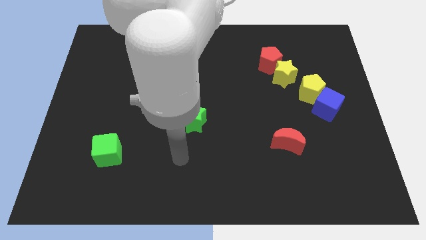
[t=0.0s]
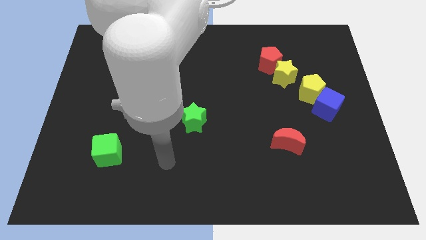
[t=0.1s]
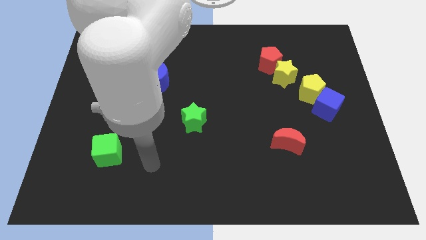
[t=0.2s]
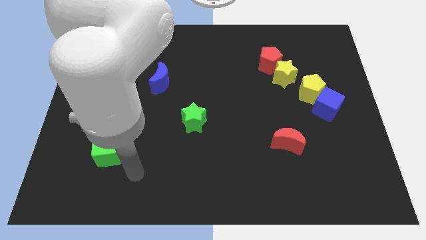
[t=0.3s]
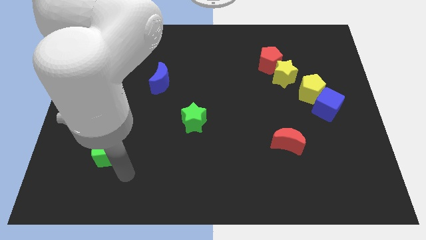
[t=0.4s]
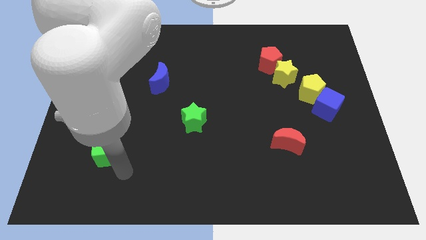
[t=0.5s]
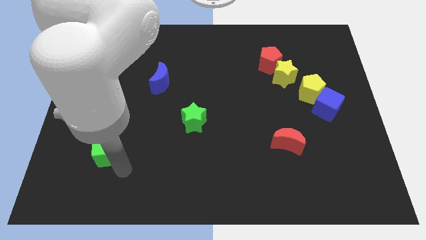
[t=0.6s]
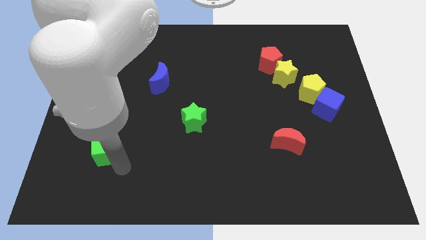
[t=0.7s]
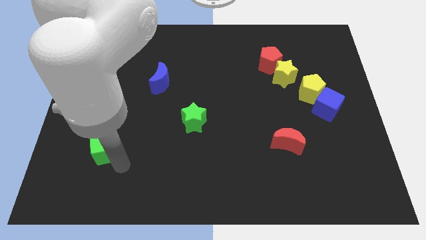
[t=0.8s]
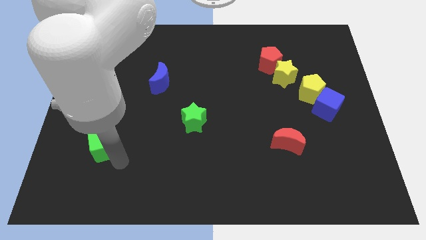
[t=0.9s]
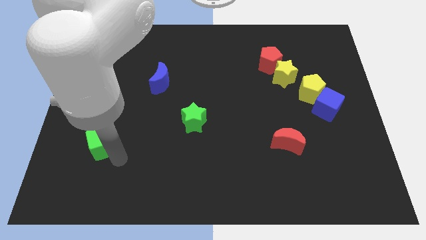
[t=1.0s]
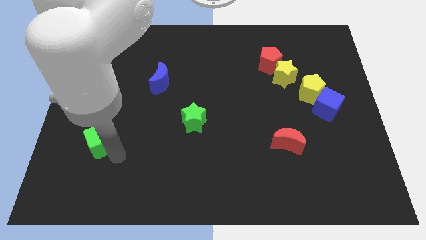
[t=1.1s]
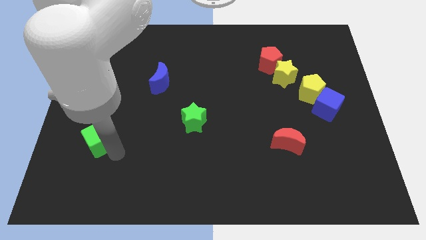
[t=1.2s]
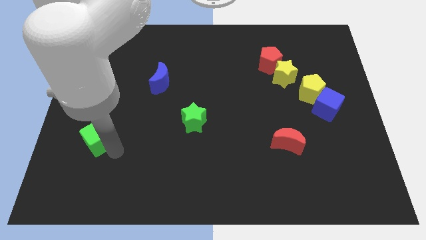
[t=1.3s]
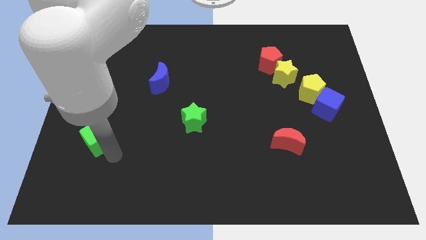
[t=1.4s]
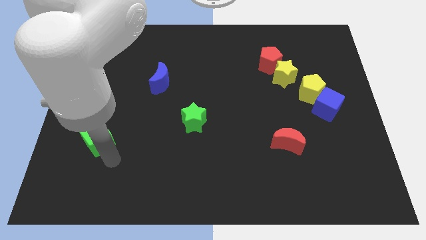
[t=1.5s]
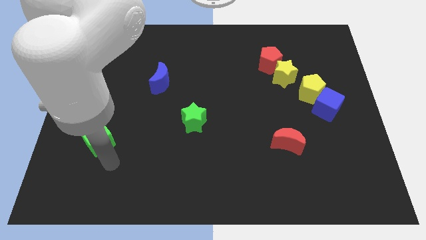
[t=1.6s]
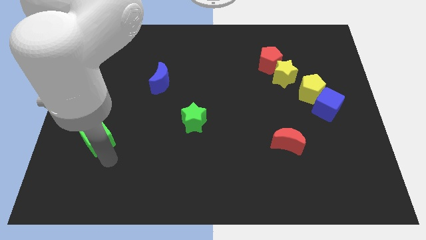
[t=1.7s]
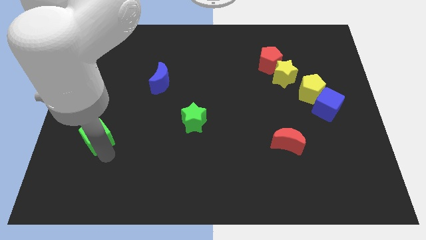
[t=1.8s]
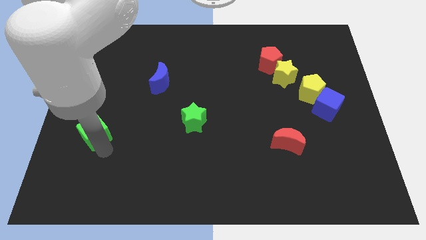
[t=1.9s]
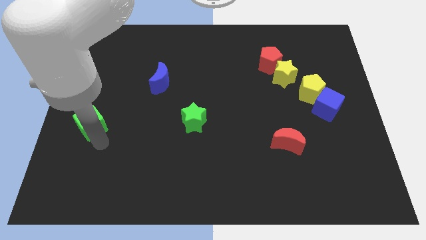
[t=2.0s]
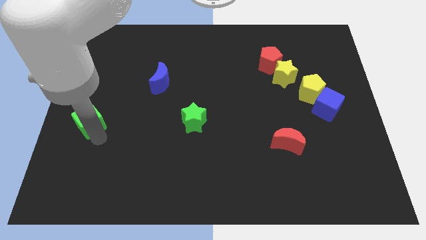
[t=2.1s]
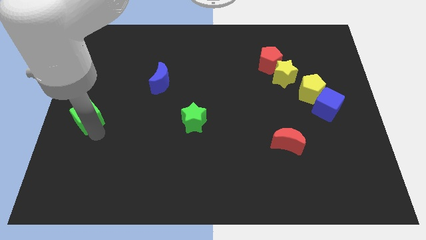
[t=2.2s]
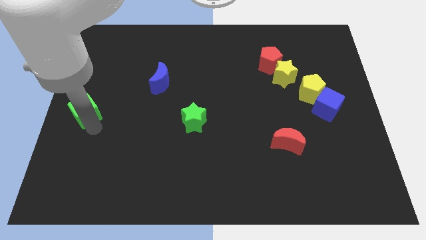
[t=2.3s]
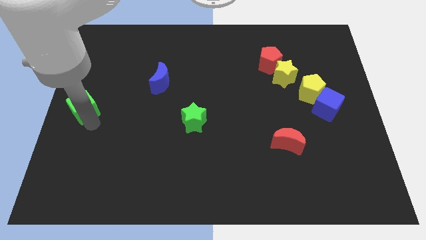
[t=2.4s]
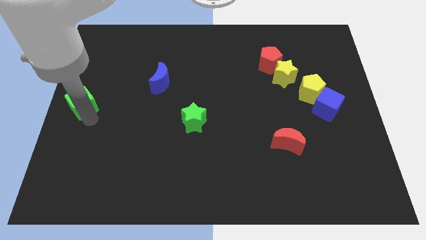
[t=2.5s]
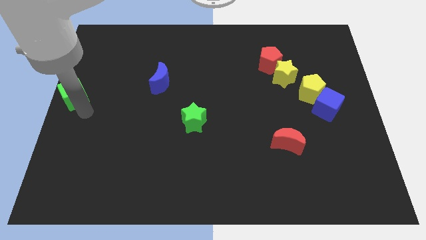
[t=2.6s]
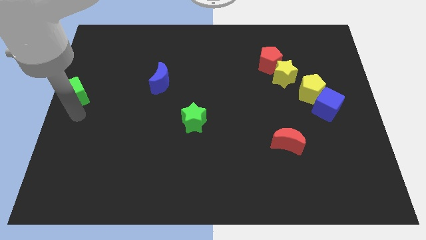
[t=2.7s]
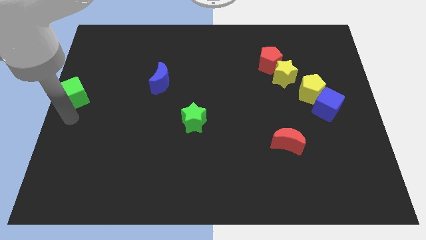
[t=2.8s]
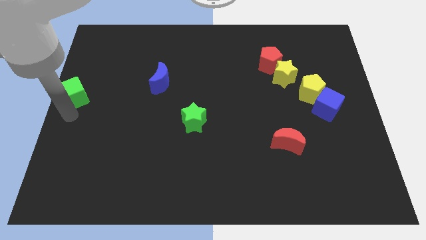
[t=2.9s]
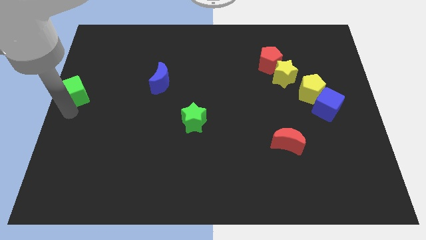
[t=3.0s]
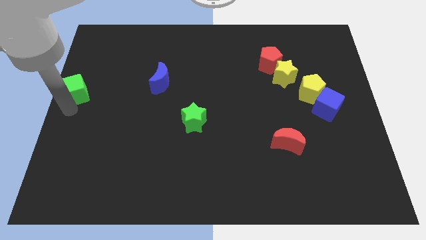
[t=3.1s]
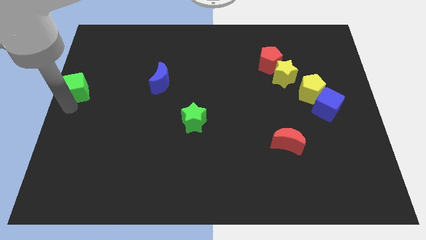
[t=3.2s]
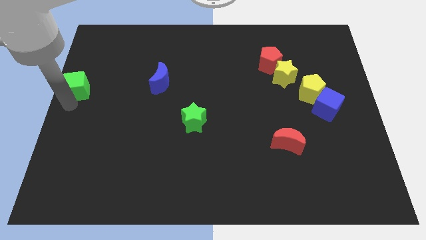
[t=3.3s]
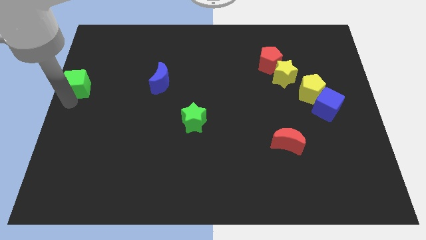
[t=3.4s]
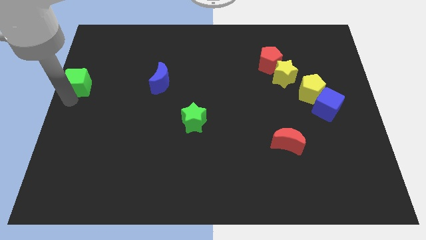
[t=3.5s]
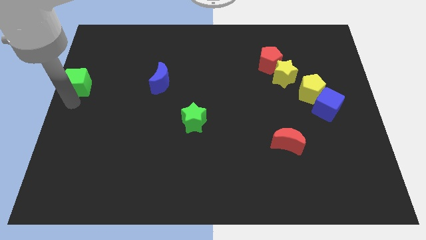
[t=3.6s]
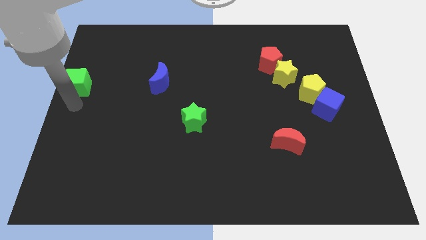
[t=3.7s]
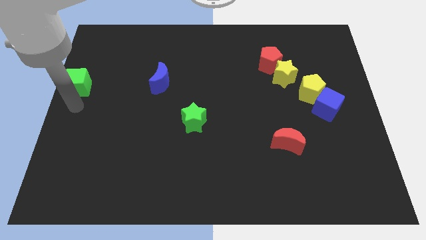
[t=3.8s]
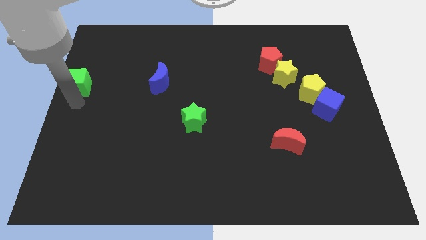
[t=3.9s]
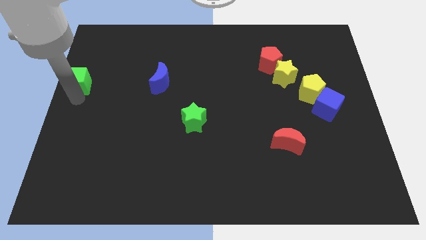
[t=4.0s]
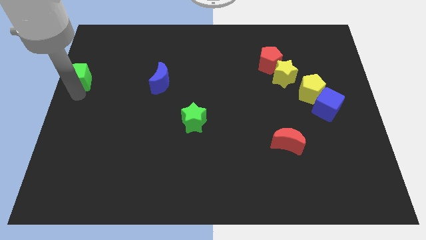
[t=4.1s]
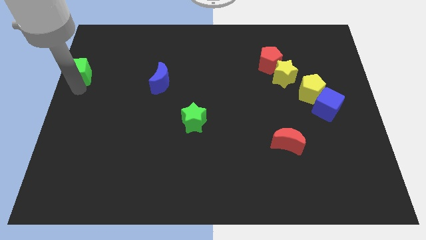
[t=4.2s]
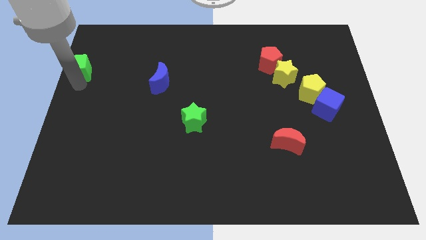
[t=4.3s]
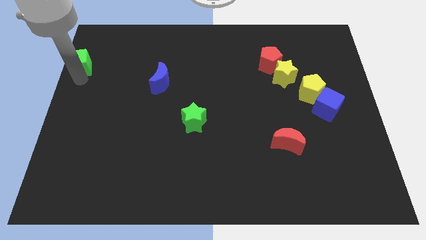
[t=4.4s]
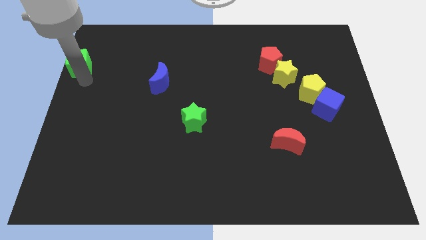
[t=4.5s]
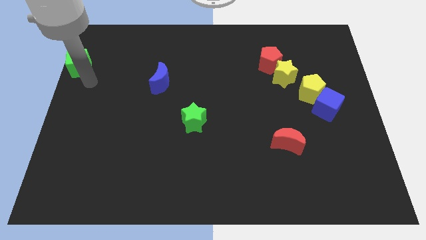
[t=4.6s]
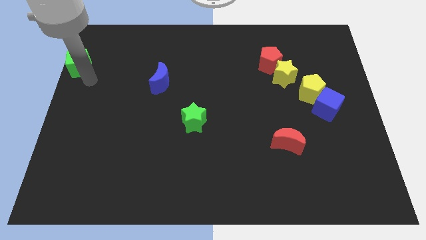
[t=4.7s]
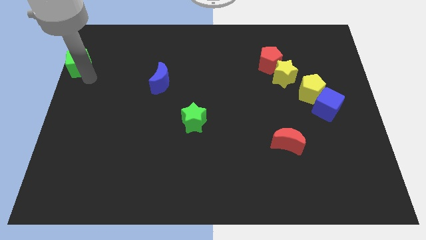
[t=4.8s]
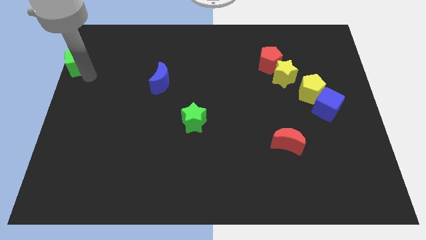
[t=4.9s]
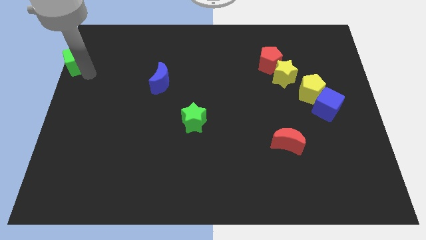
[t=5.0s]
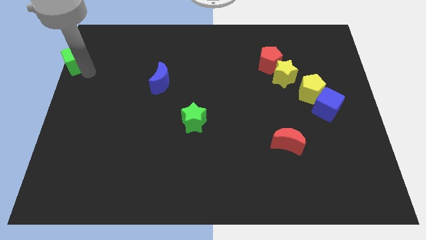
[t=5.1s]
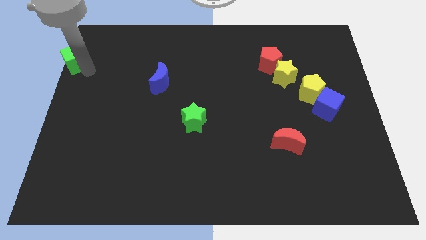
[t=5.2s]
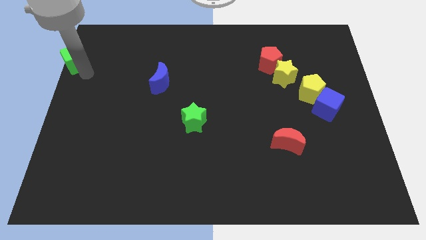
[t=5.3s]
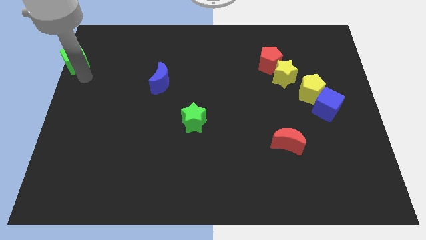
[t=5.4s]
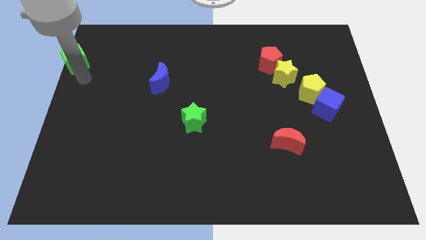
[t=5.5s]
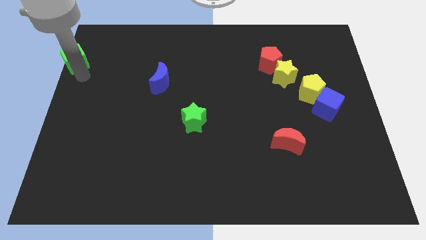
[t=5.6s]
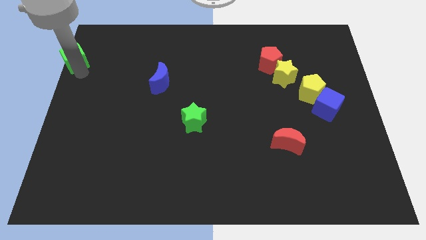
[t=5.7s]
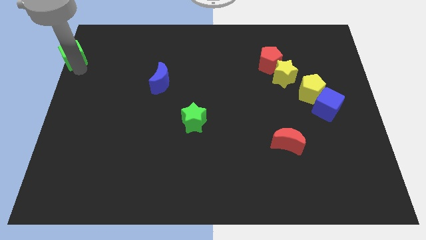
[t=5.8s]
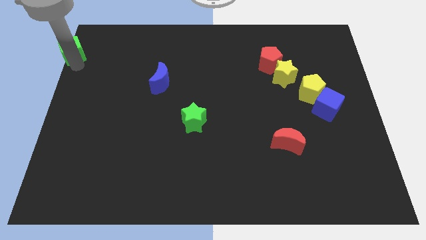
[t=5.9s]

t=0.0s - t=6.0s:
move the green cube to the top left

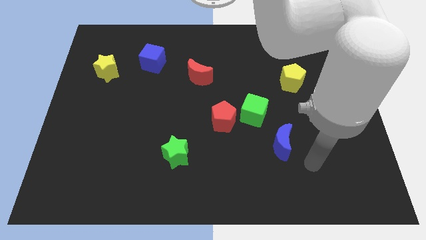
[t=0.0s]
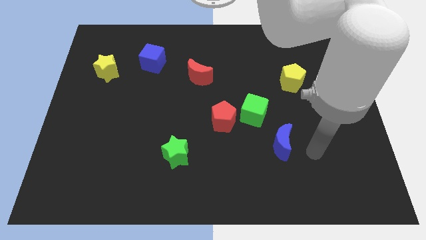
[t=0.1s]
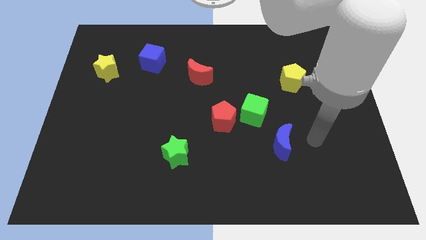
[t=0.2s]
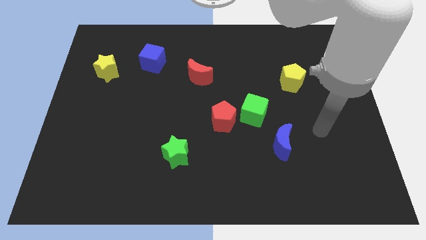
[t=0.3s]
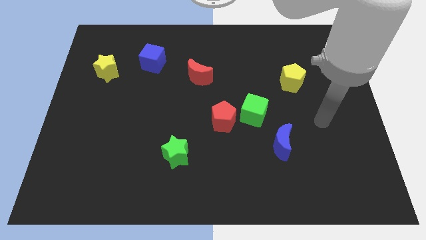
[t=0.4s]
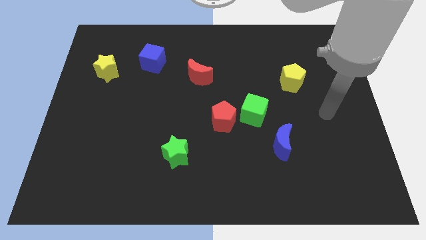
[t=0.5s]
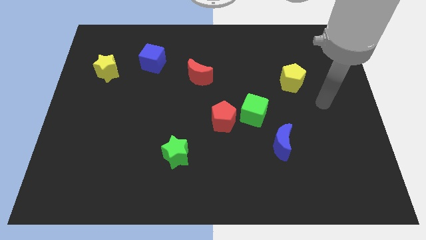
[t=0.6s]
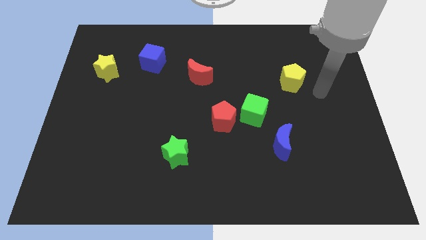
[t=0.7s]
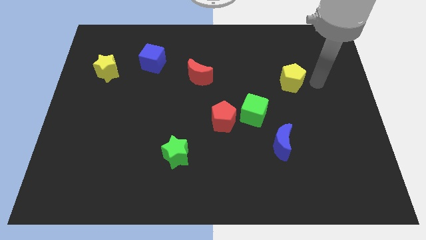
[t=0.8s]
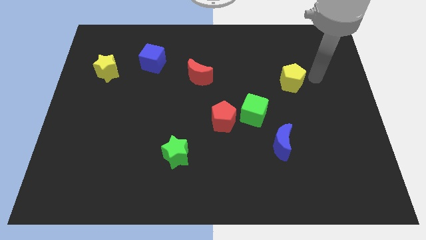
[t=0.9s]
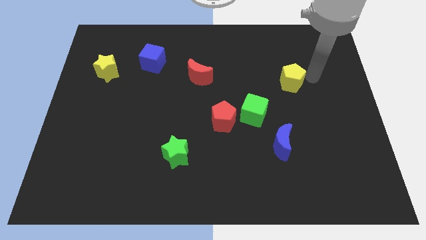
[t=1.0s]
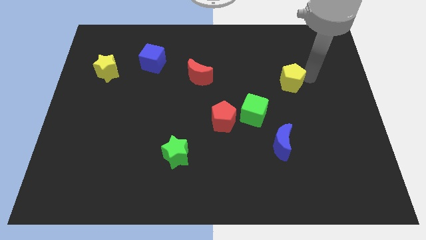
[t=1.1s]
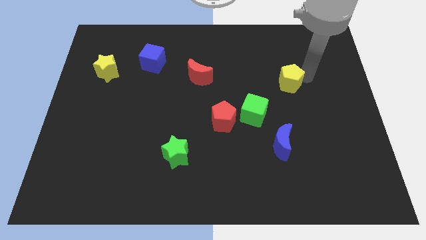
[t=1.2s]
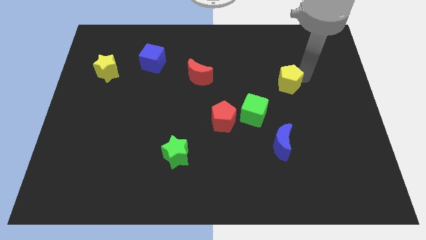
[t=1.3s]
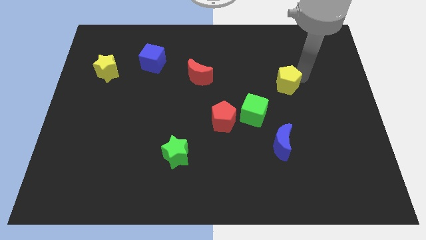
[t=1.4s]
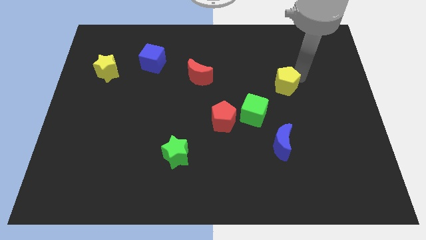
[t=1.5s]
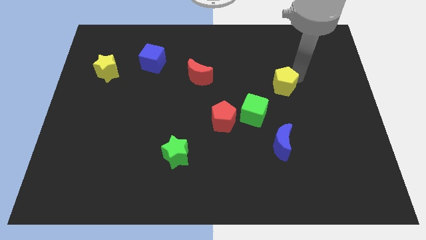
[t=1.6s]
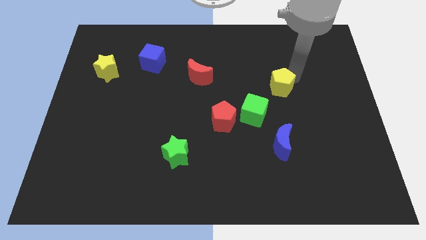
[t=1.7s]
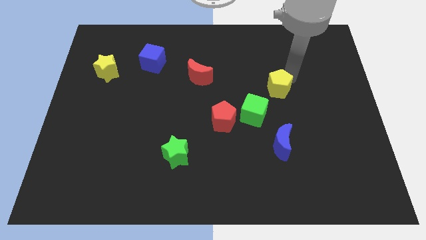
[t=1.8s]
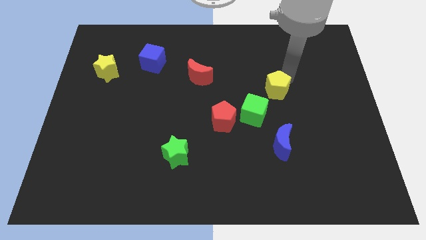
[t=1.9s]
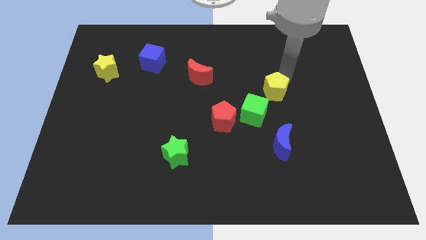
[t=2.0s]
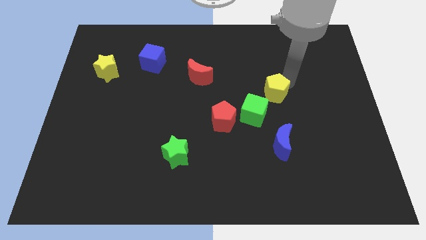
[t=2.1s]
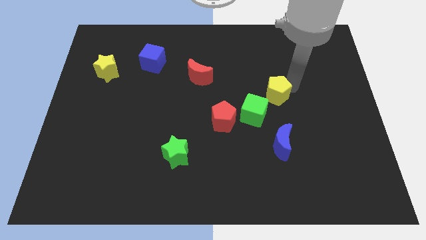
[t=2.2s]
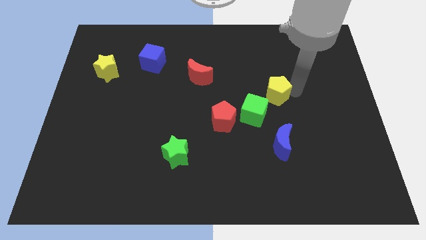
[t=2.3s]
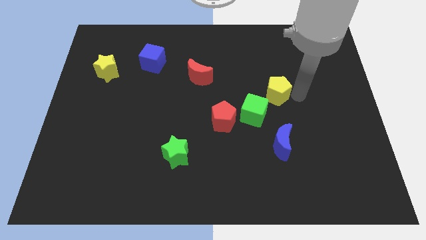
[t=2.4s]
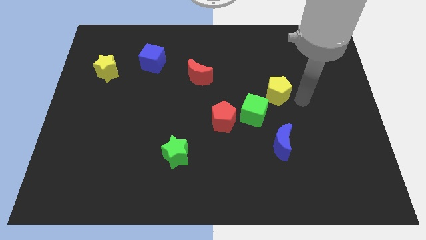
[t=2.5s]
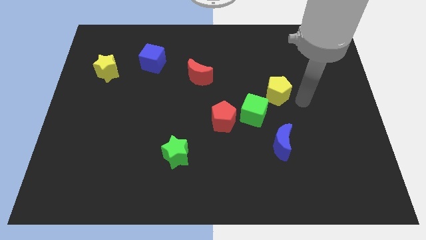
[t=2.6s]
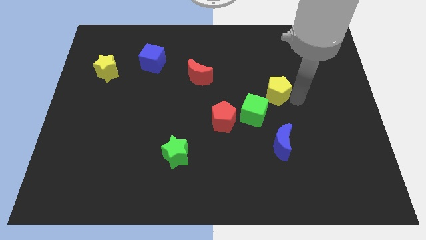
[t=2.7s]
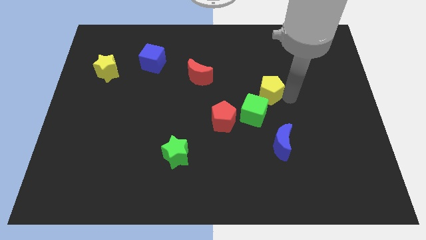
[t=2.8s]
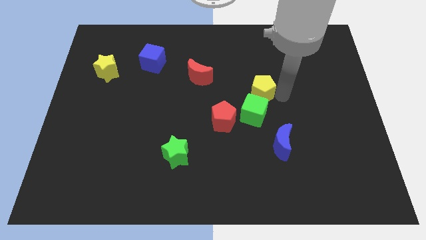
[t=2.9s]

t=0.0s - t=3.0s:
push the yellow pentagon to the center
